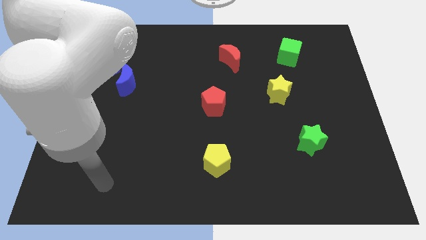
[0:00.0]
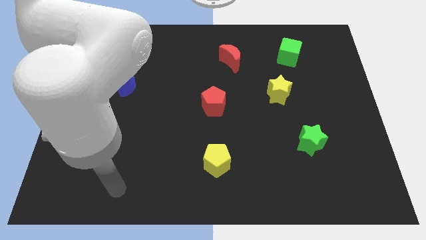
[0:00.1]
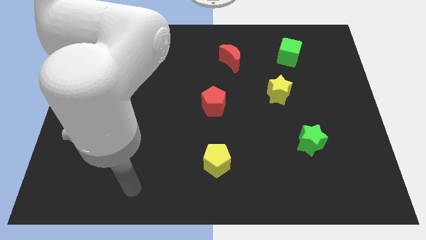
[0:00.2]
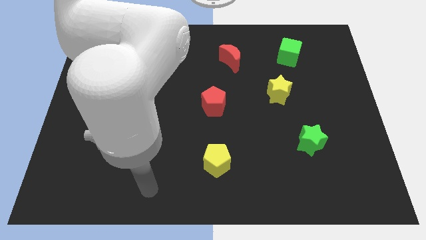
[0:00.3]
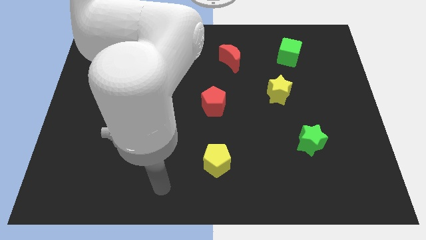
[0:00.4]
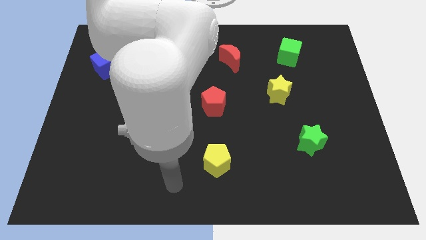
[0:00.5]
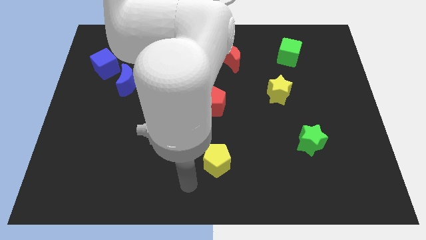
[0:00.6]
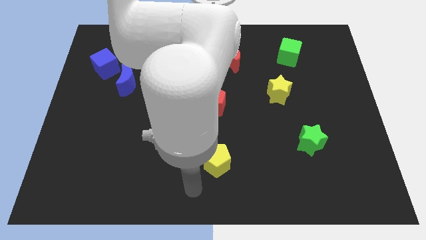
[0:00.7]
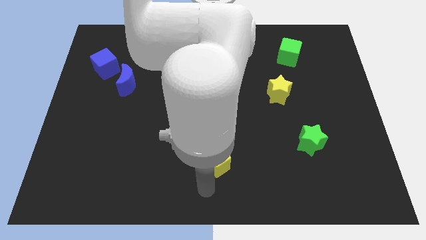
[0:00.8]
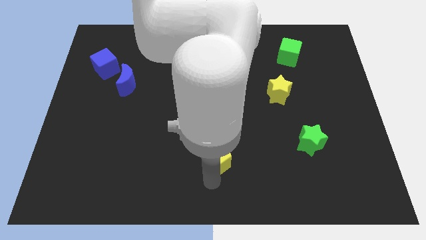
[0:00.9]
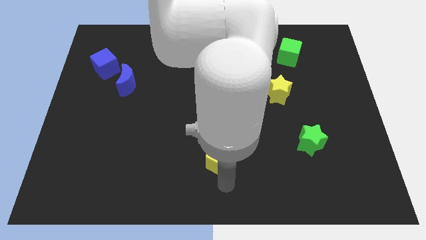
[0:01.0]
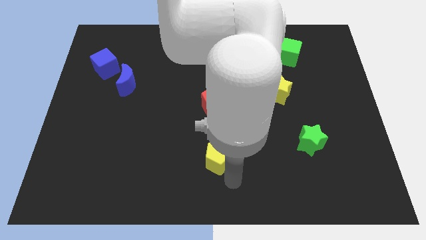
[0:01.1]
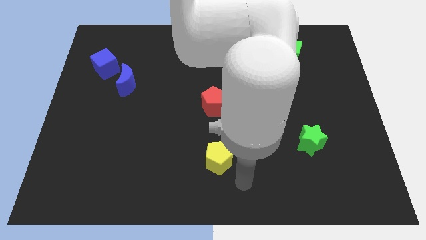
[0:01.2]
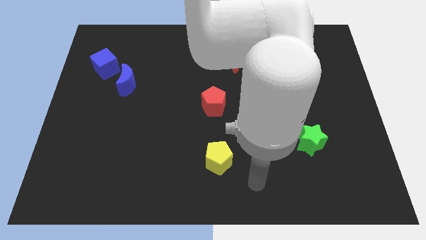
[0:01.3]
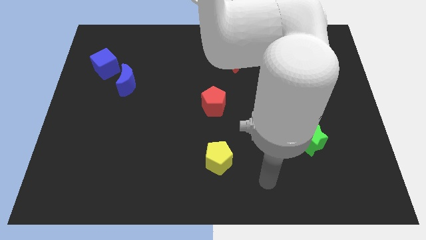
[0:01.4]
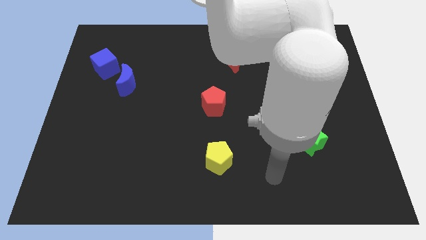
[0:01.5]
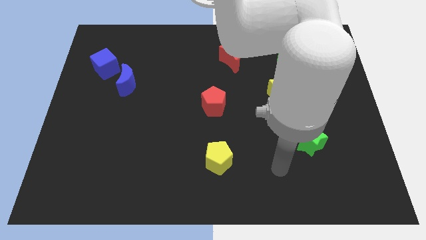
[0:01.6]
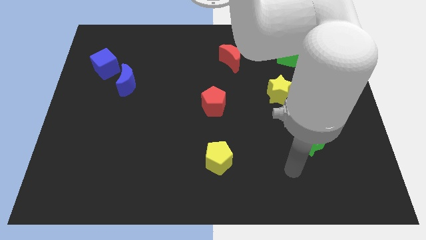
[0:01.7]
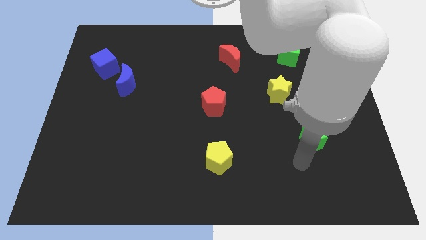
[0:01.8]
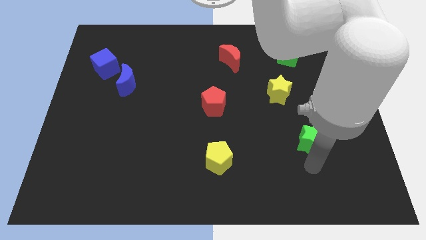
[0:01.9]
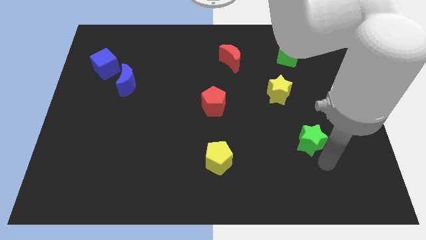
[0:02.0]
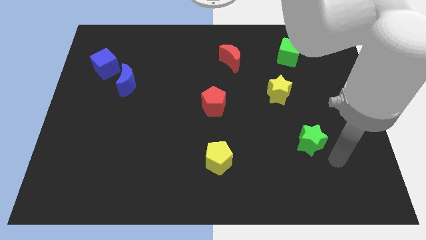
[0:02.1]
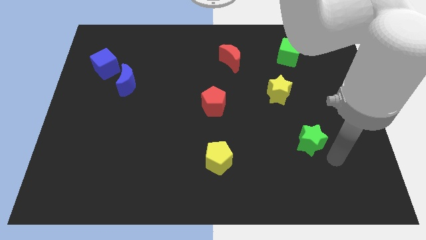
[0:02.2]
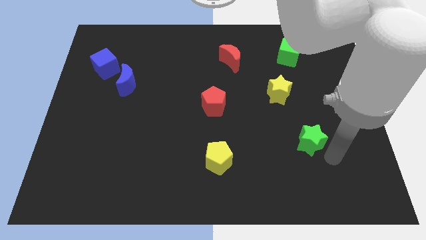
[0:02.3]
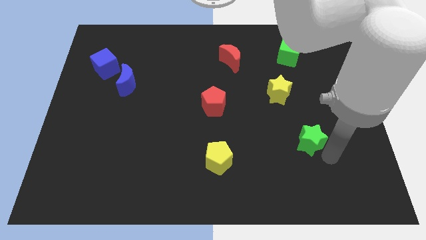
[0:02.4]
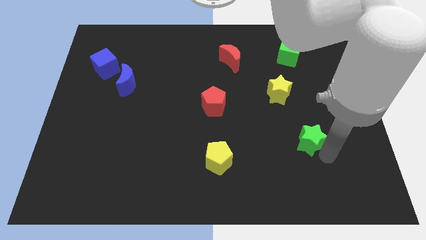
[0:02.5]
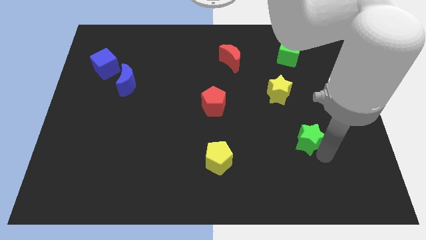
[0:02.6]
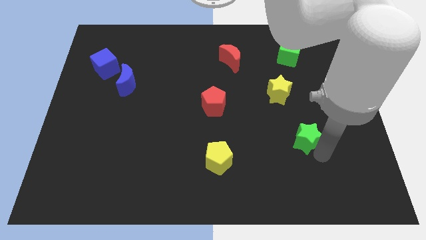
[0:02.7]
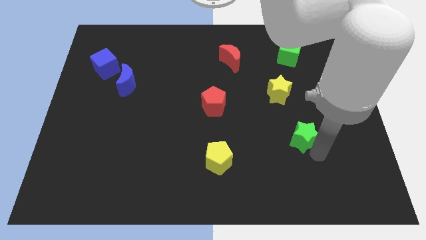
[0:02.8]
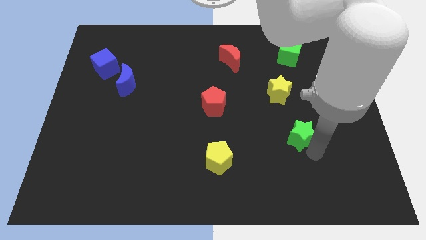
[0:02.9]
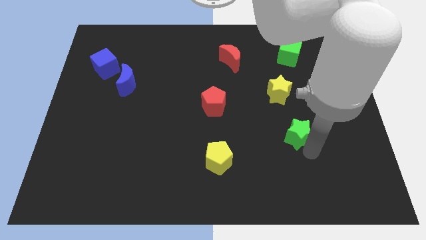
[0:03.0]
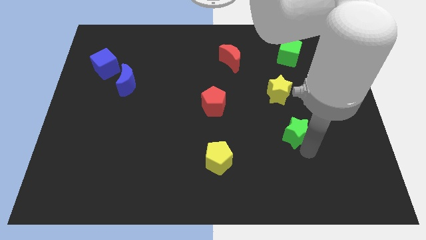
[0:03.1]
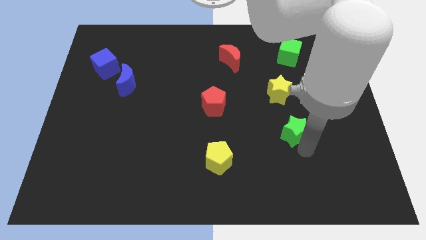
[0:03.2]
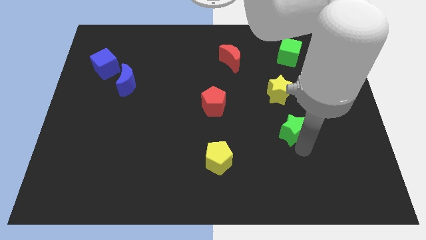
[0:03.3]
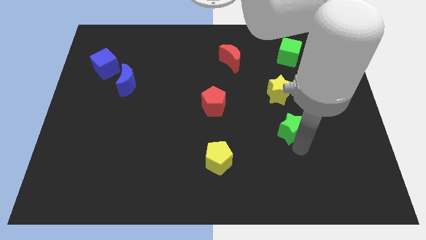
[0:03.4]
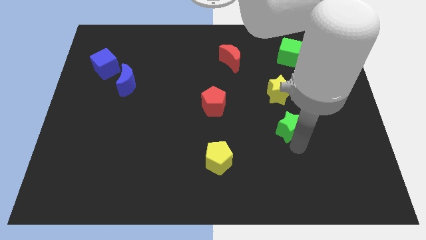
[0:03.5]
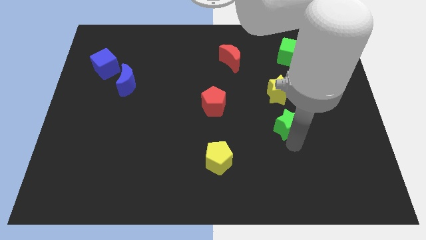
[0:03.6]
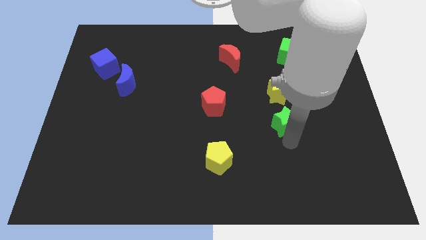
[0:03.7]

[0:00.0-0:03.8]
move the green star diagonally up and left slightly

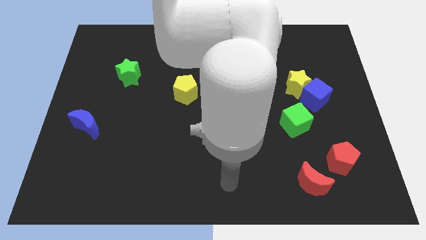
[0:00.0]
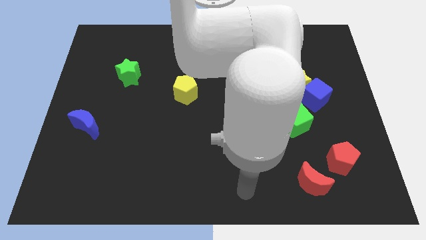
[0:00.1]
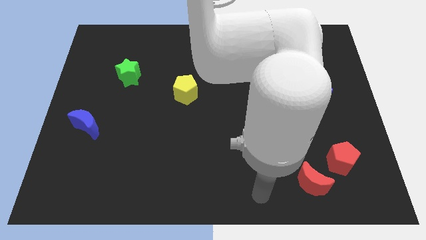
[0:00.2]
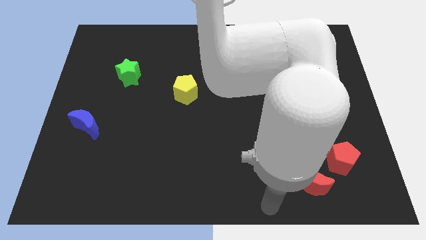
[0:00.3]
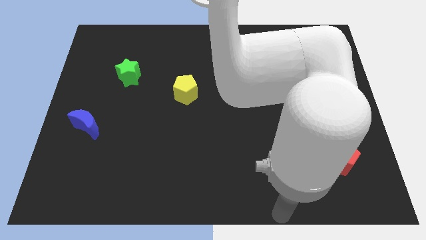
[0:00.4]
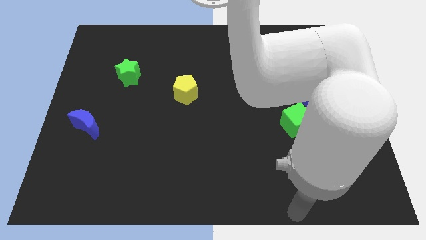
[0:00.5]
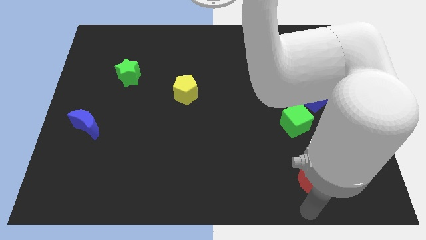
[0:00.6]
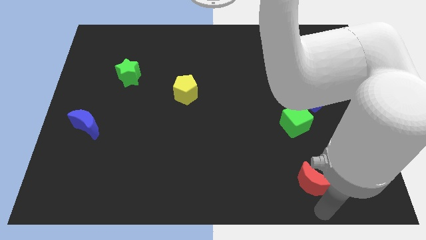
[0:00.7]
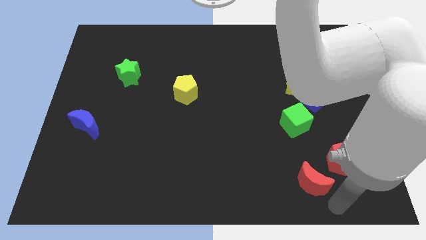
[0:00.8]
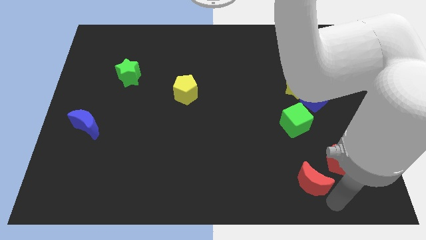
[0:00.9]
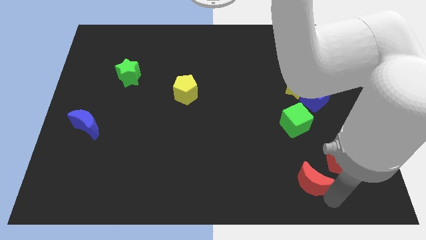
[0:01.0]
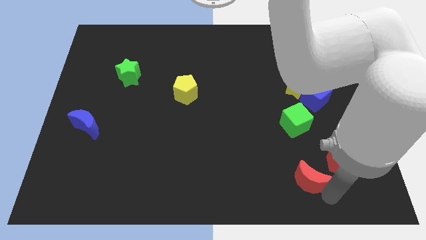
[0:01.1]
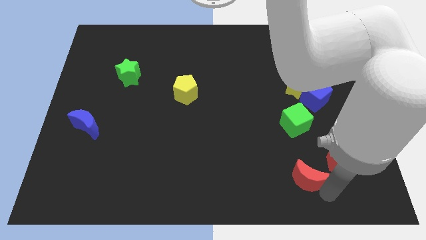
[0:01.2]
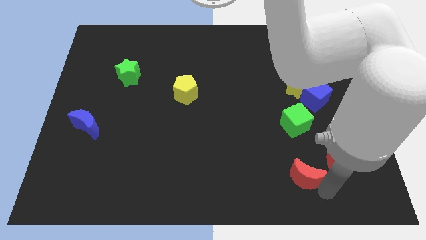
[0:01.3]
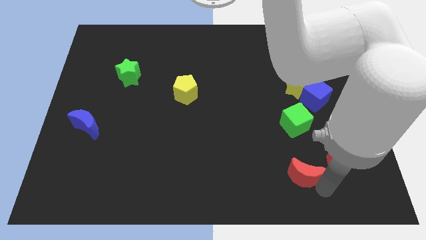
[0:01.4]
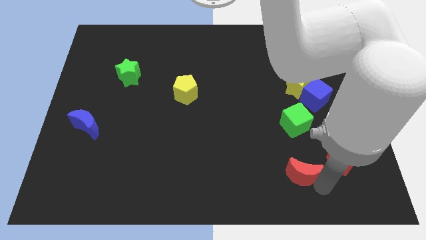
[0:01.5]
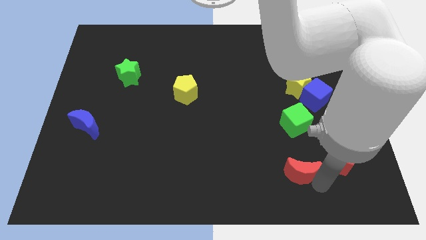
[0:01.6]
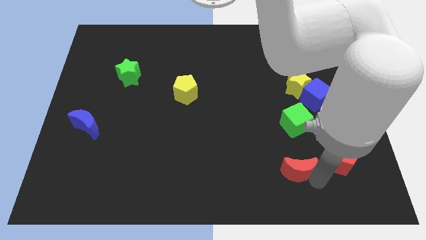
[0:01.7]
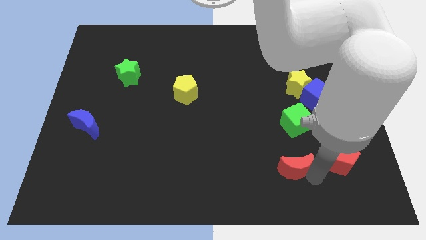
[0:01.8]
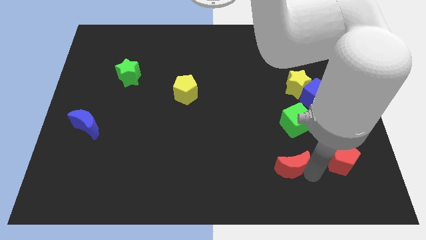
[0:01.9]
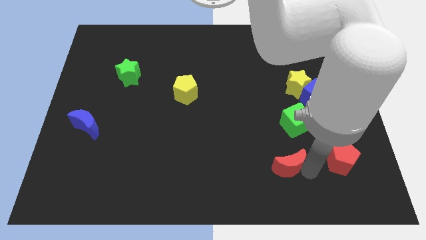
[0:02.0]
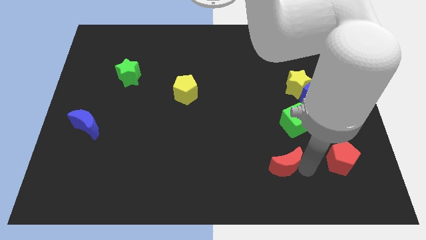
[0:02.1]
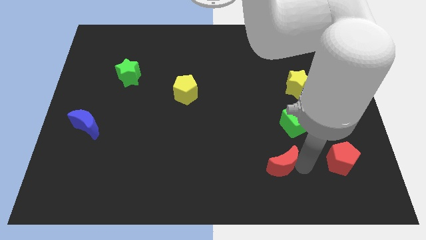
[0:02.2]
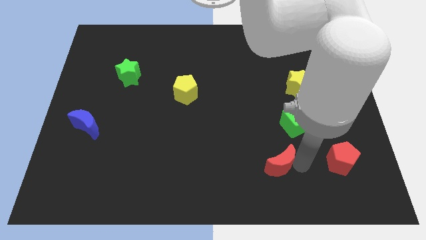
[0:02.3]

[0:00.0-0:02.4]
slide the red moon a little up and then to the left

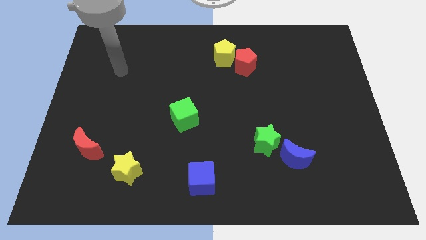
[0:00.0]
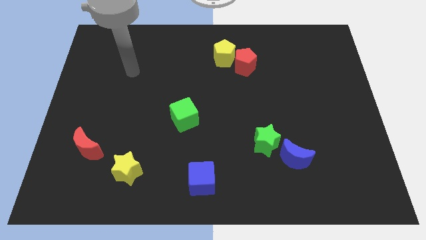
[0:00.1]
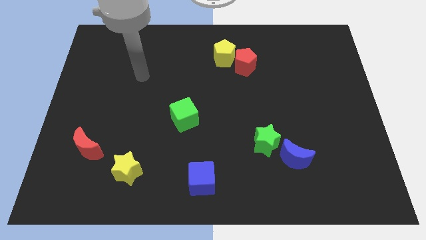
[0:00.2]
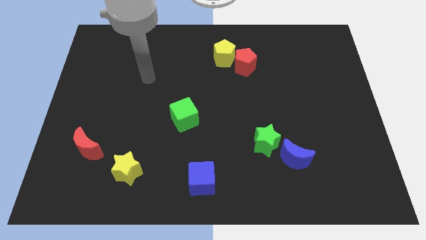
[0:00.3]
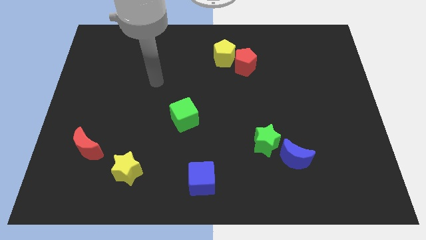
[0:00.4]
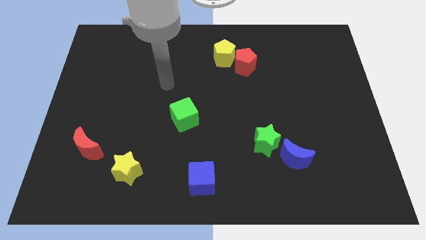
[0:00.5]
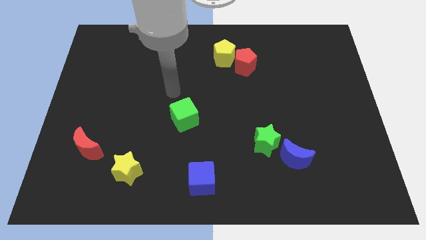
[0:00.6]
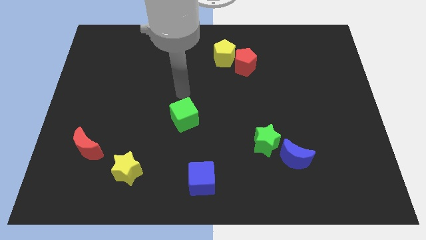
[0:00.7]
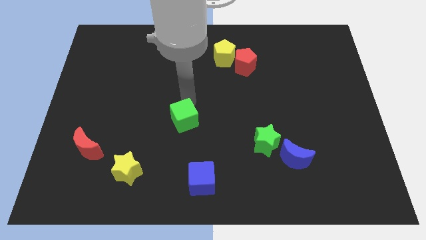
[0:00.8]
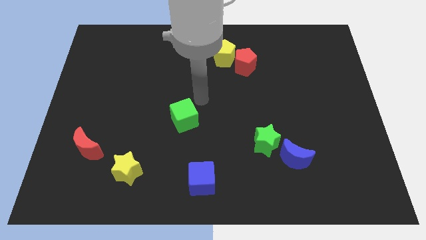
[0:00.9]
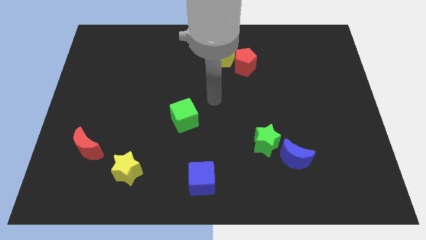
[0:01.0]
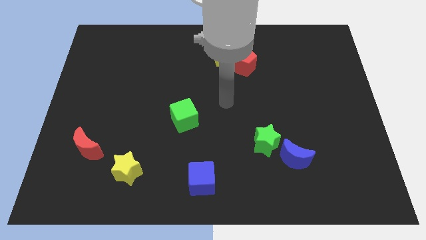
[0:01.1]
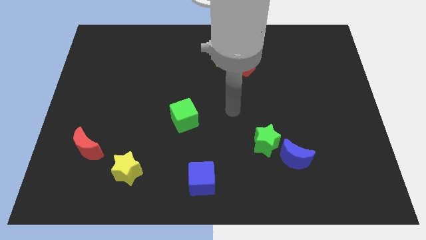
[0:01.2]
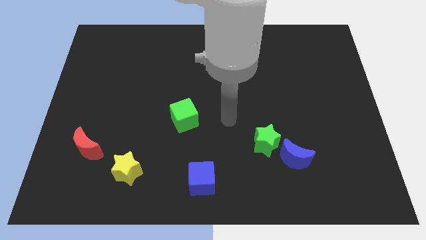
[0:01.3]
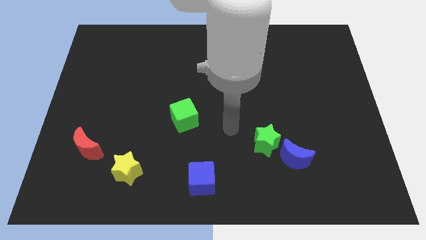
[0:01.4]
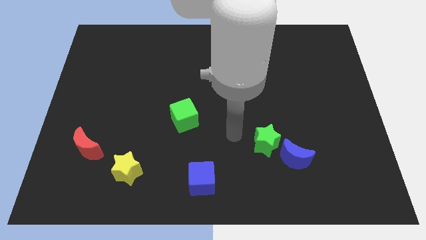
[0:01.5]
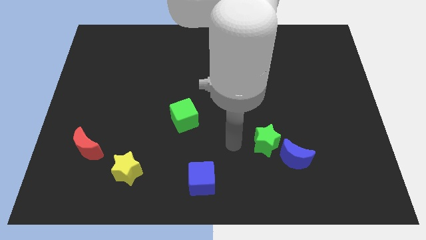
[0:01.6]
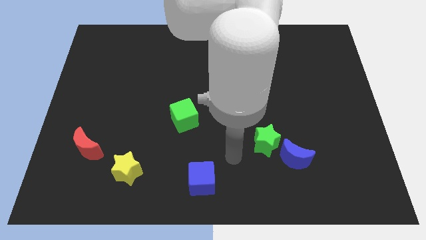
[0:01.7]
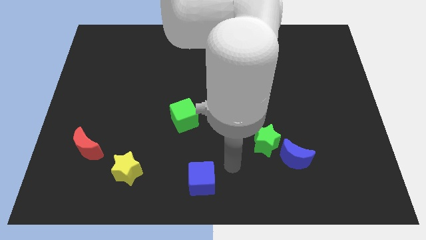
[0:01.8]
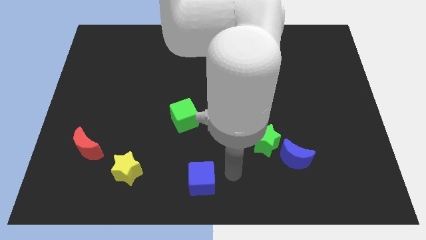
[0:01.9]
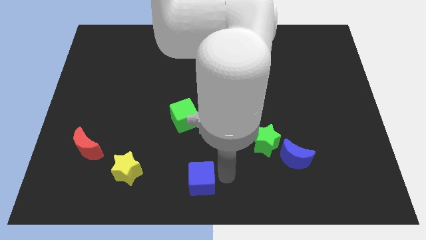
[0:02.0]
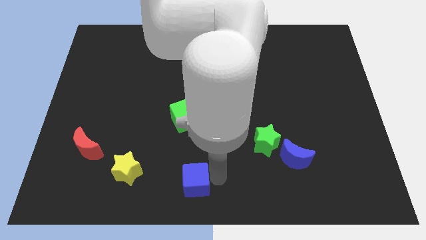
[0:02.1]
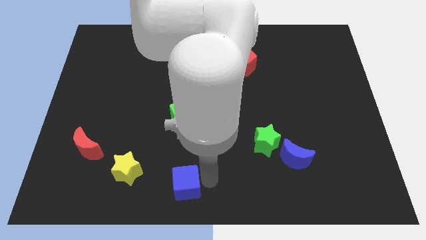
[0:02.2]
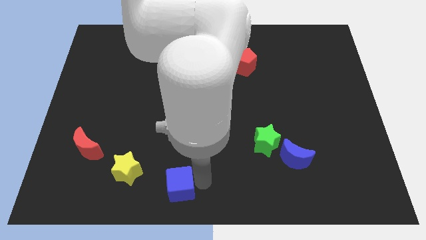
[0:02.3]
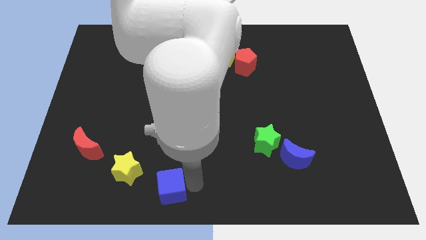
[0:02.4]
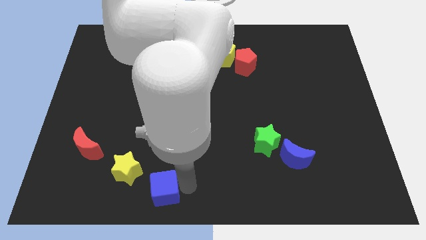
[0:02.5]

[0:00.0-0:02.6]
slide the blue cube slightly left
